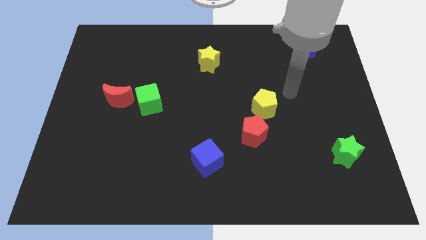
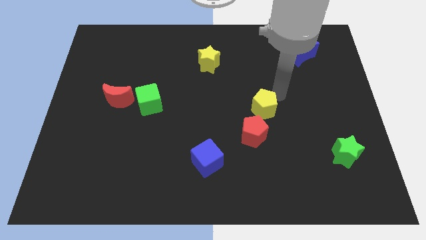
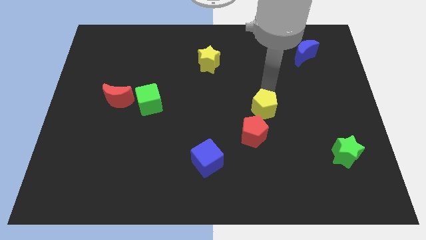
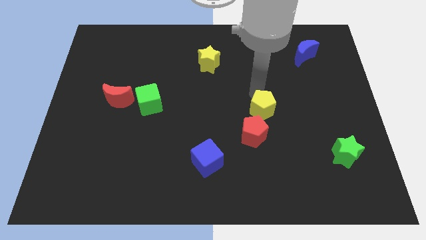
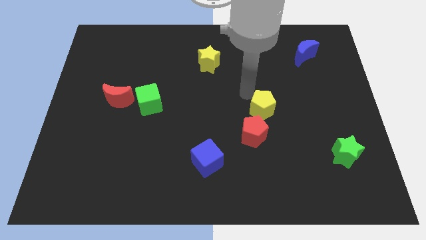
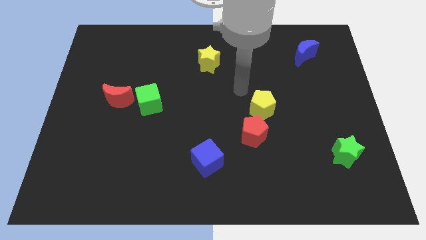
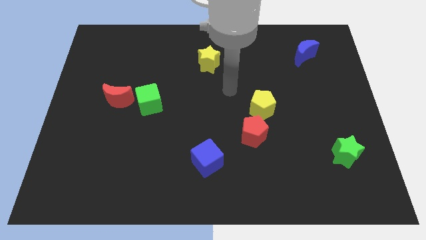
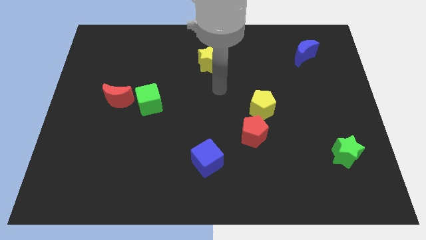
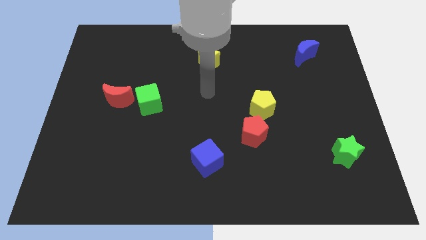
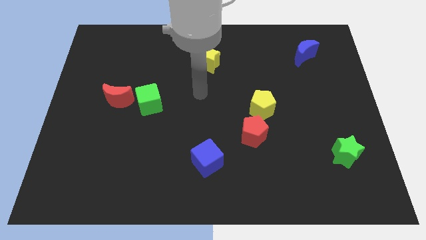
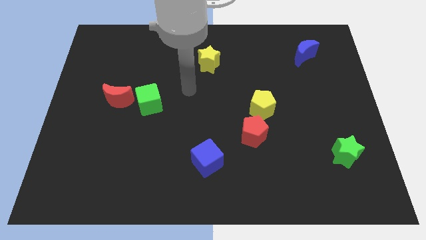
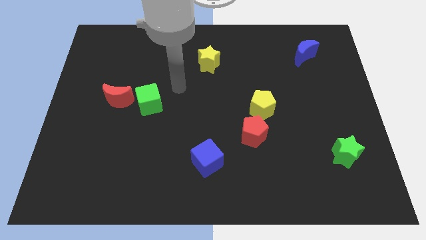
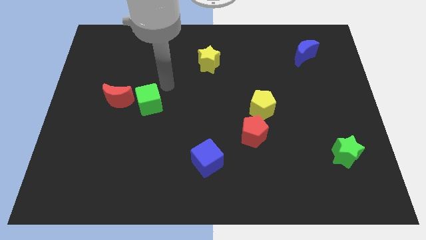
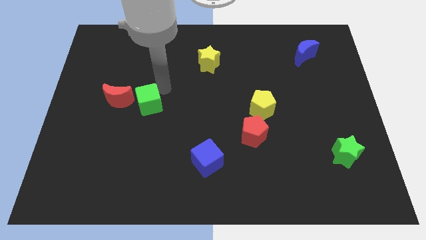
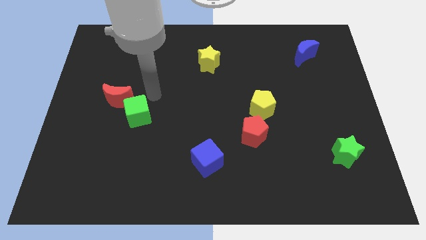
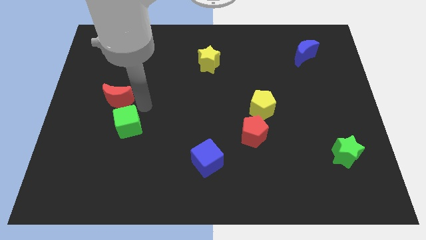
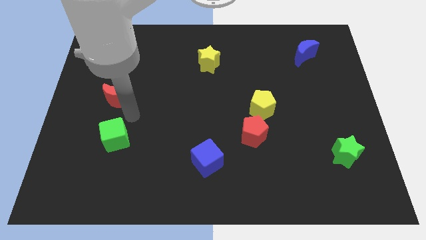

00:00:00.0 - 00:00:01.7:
move the red moon away from the green cube

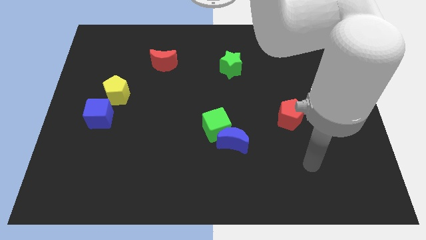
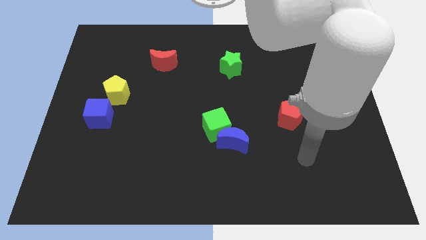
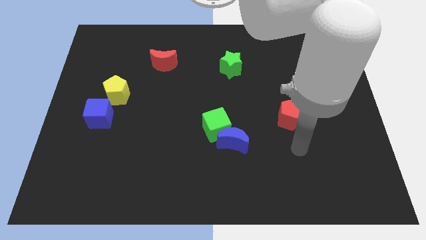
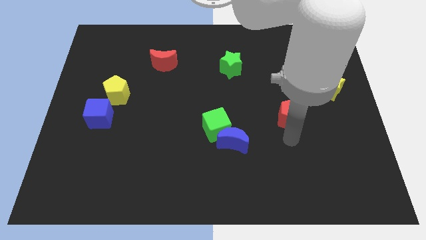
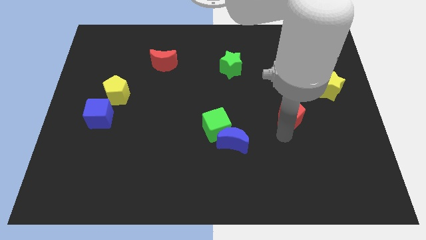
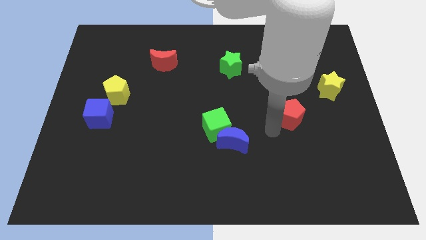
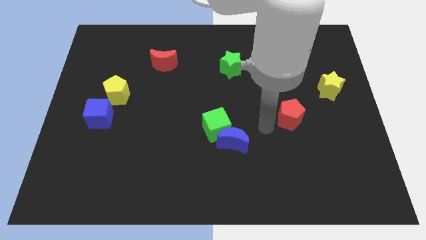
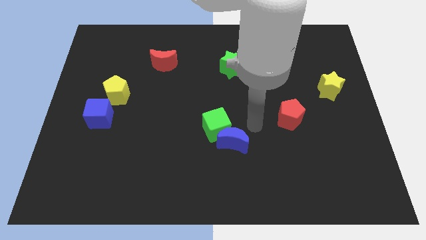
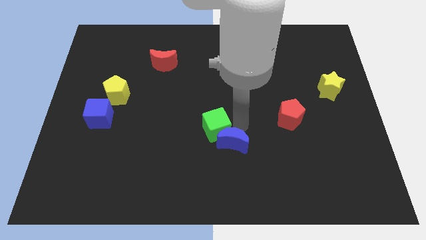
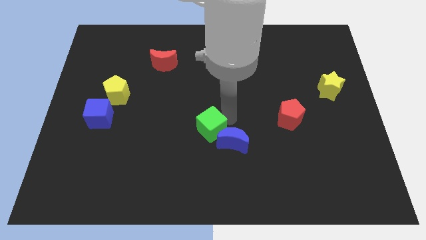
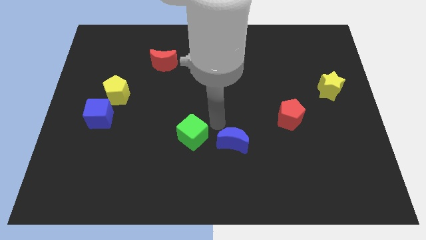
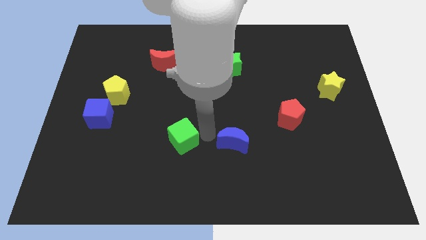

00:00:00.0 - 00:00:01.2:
separate the blue moon from the green cube

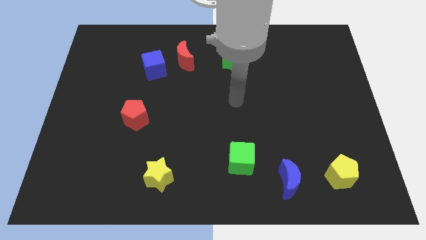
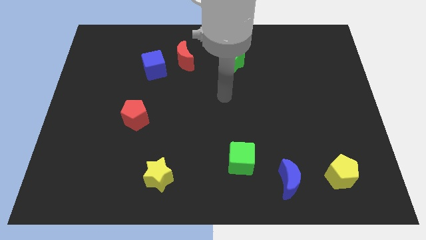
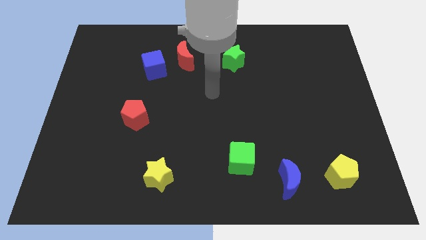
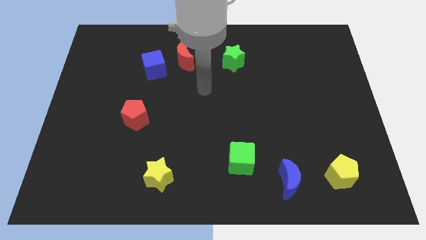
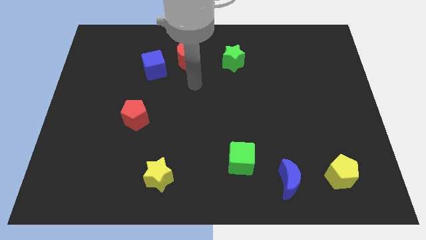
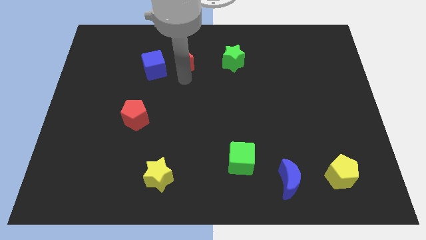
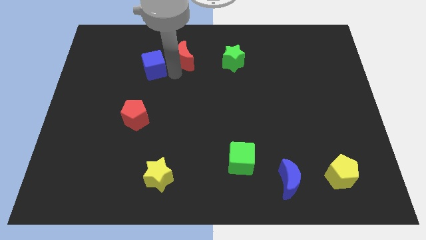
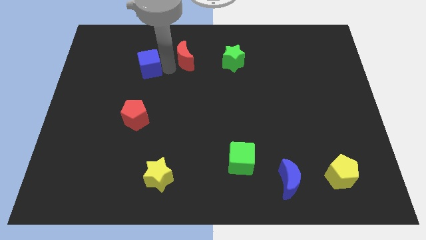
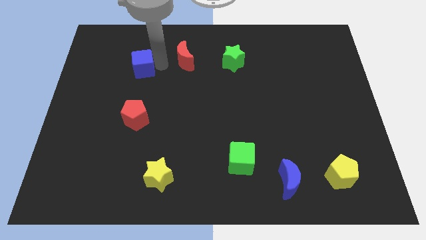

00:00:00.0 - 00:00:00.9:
separate the red moon from the blue cube

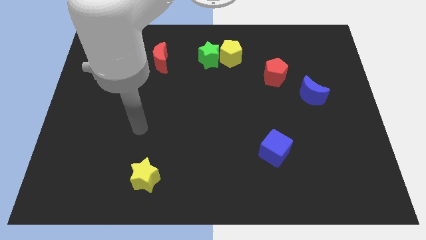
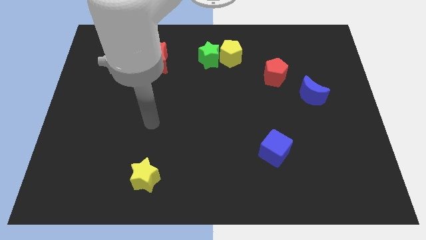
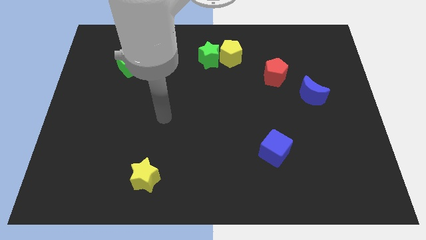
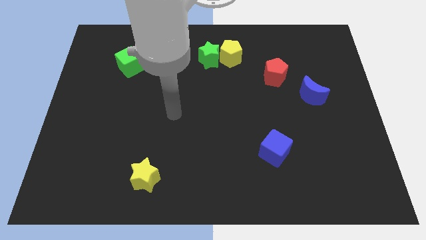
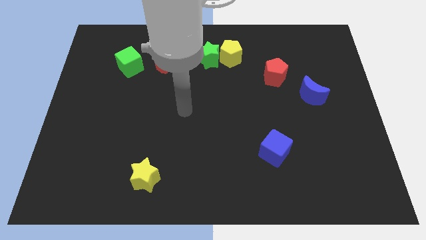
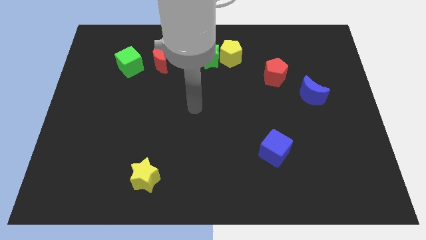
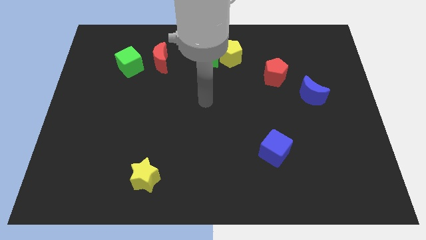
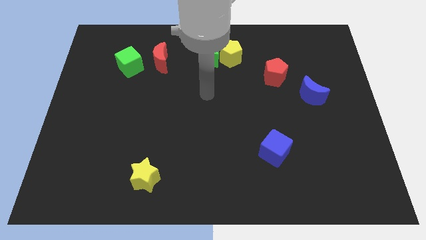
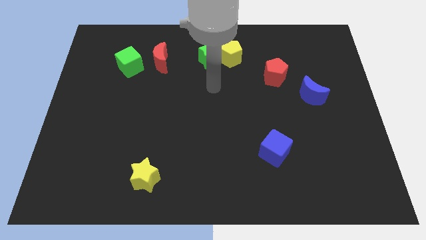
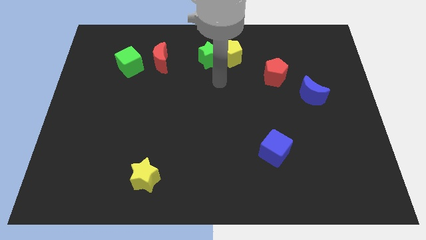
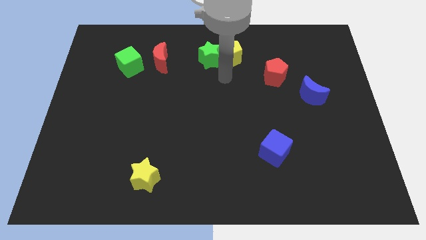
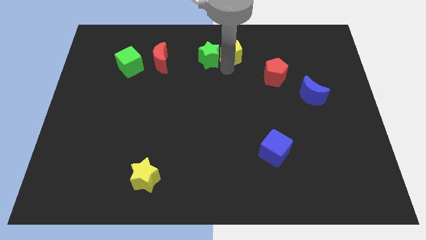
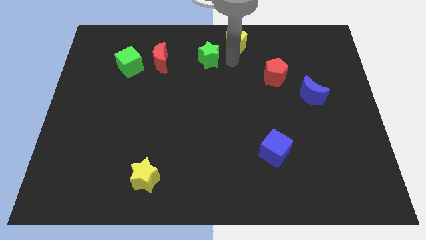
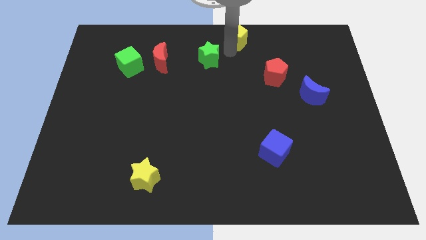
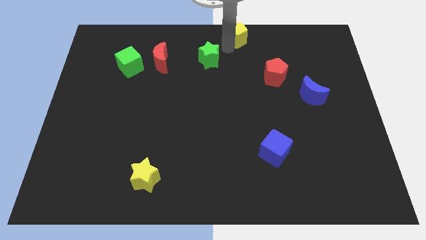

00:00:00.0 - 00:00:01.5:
pull the green star apart from the yellow pentagon

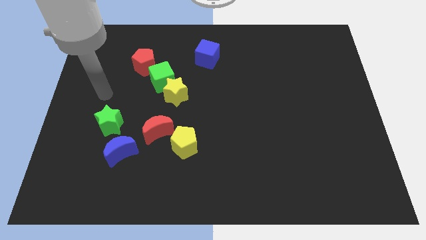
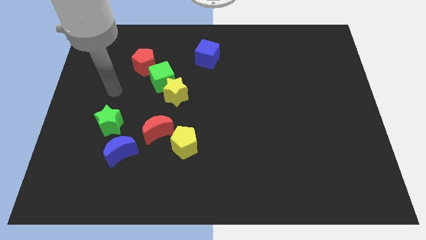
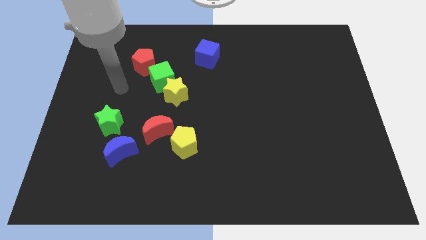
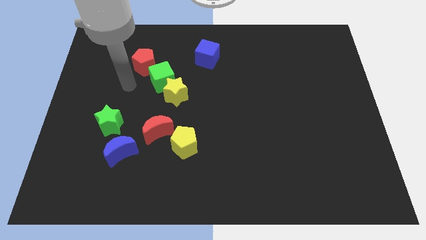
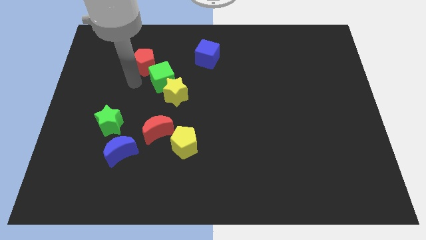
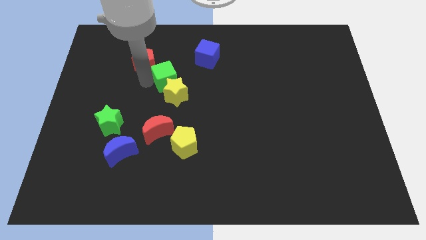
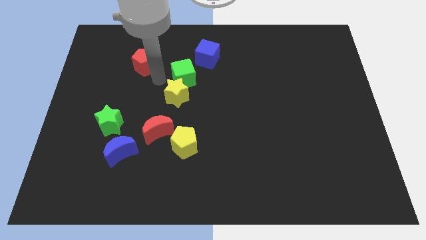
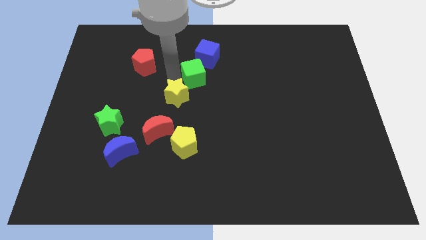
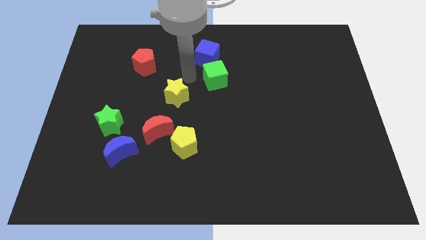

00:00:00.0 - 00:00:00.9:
move the yellow star away from the green cube

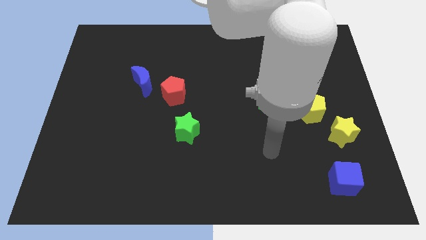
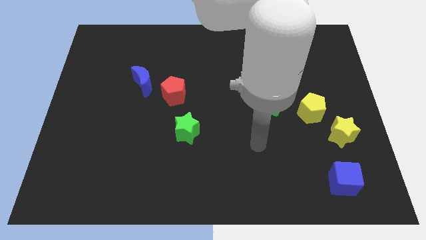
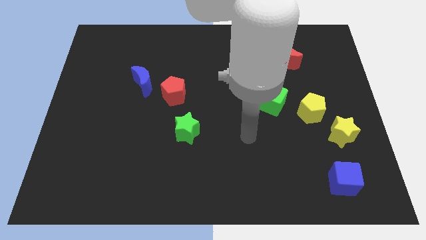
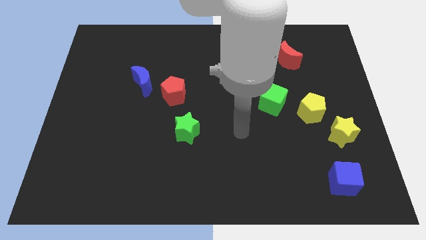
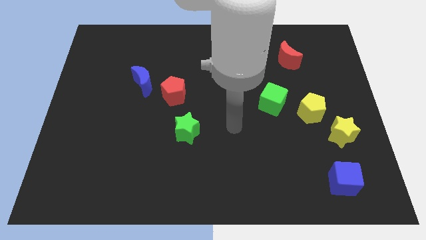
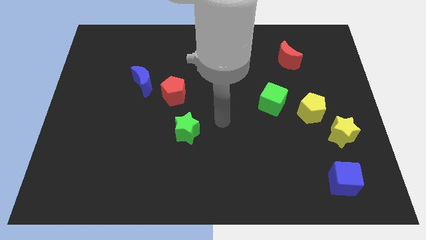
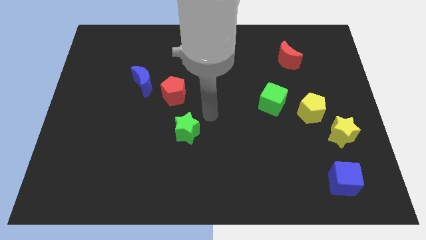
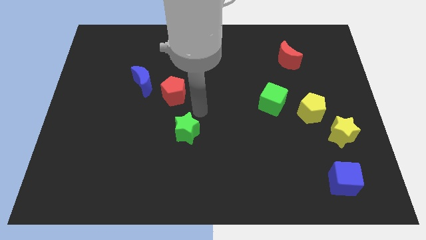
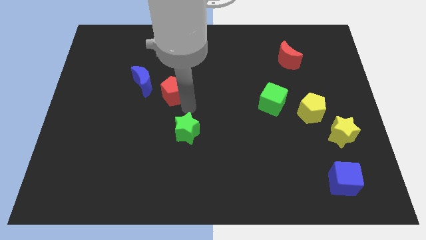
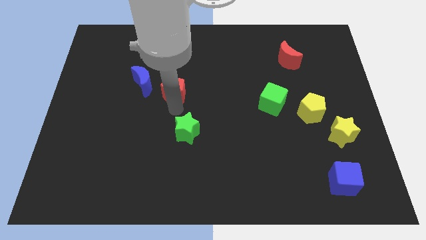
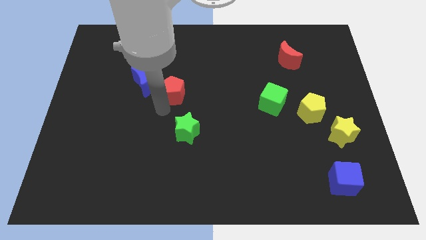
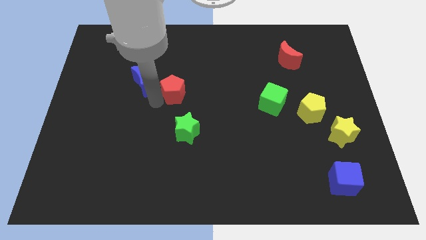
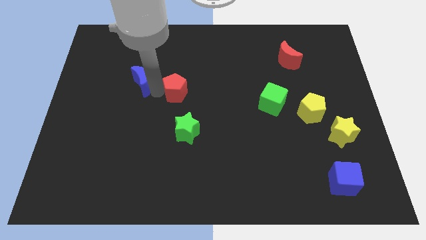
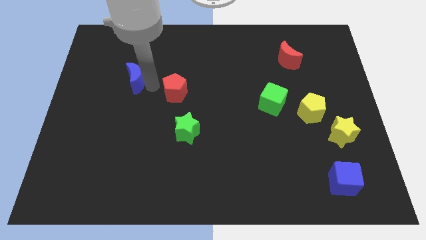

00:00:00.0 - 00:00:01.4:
move the red pentagon away from the blue moon

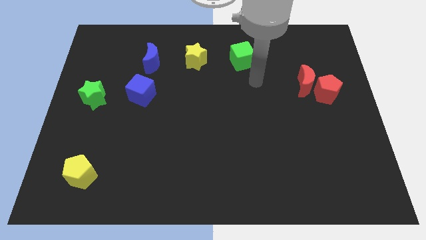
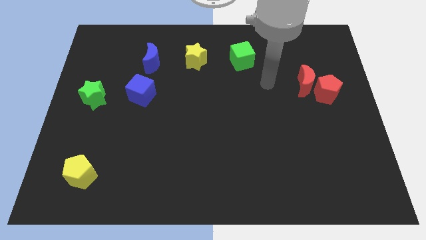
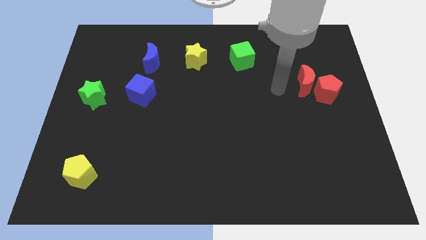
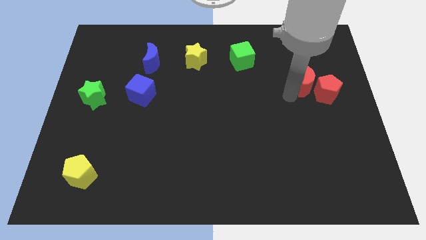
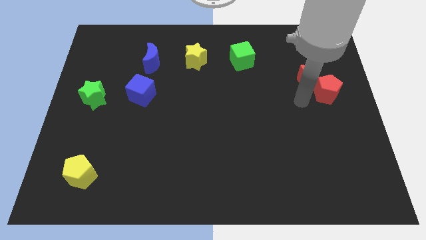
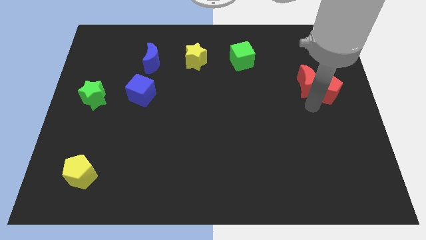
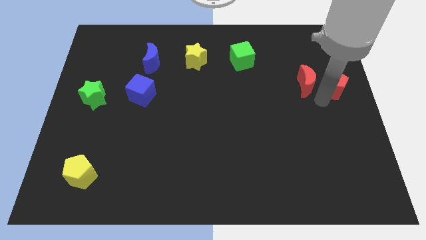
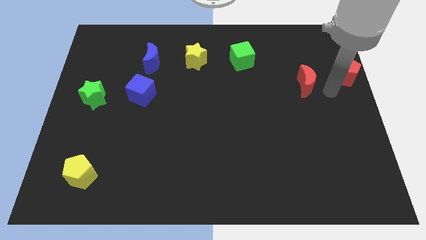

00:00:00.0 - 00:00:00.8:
separate the red moon from the red pentagon

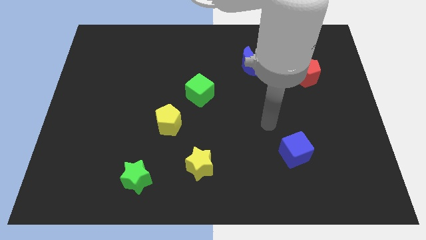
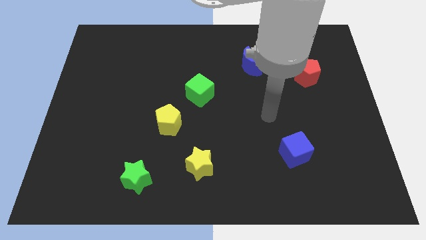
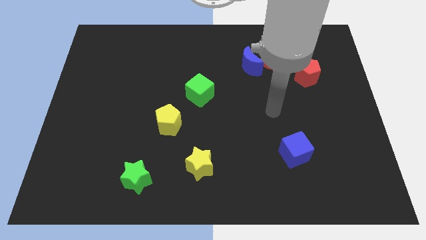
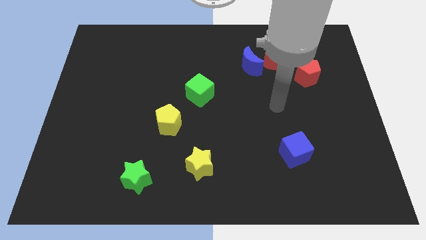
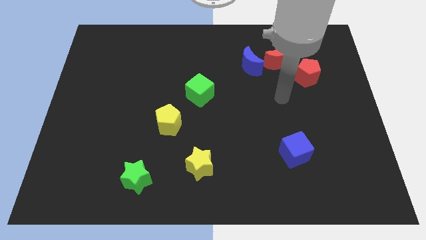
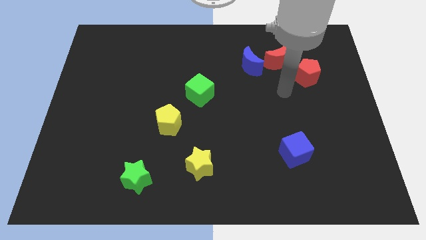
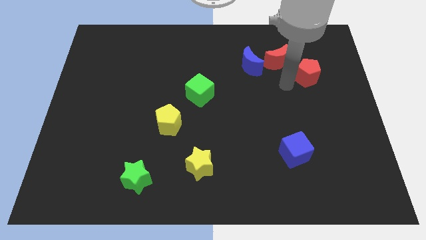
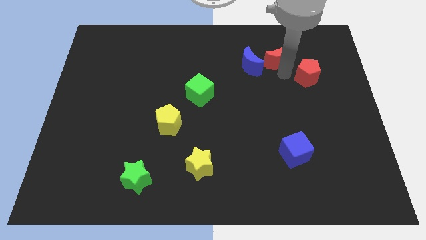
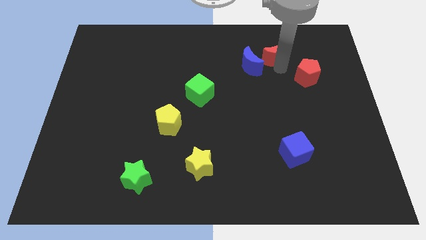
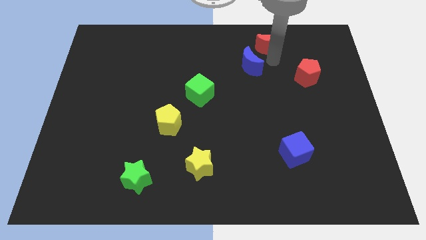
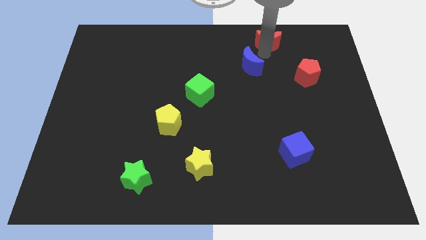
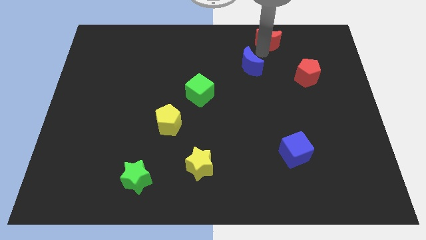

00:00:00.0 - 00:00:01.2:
separate the blue moon from the red moon
